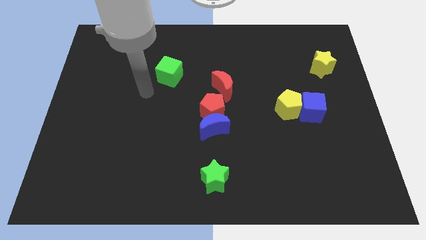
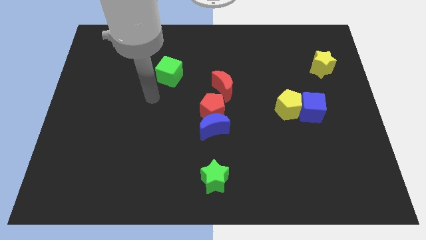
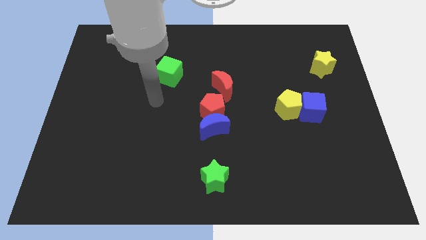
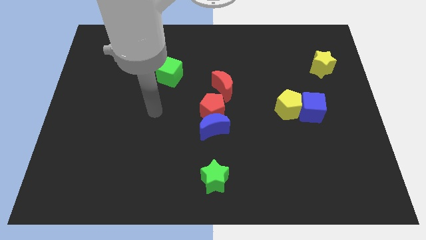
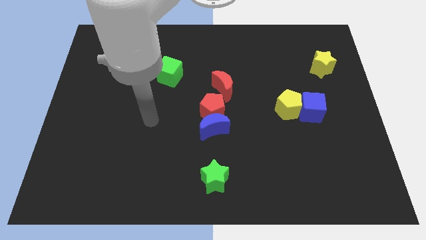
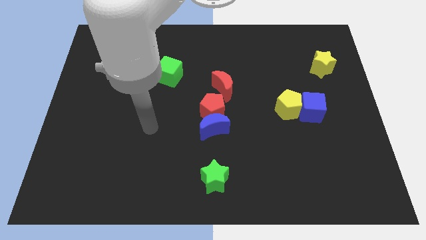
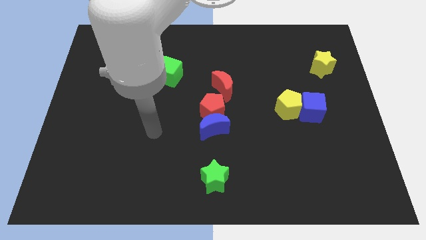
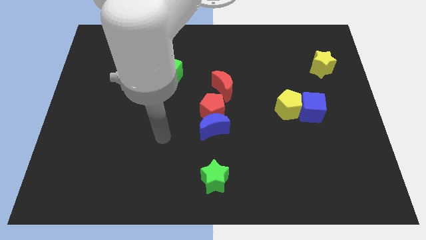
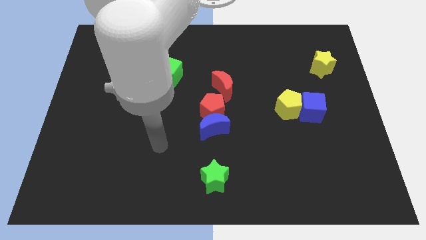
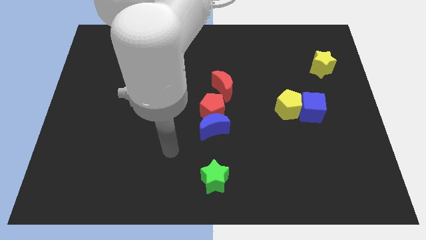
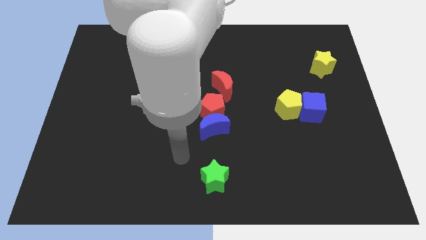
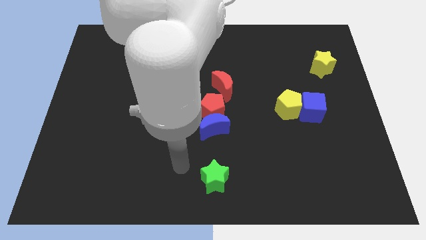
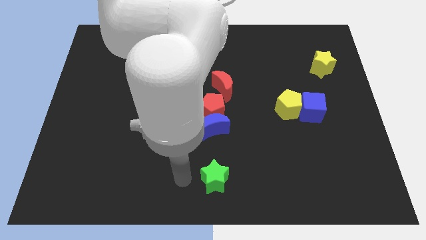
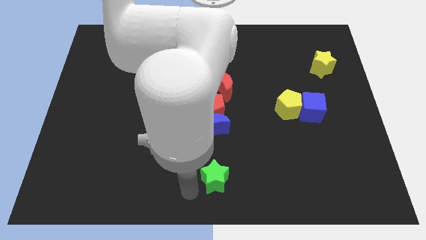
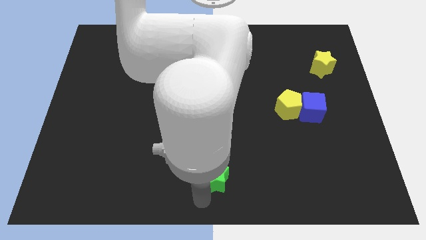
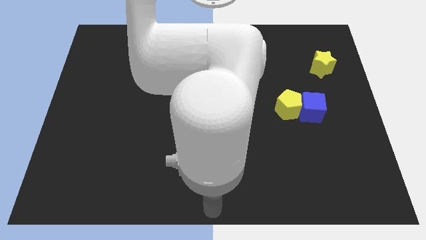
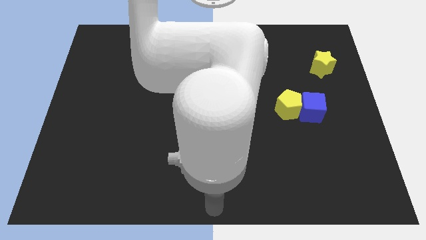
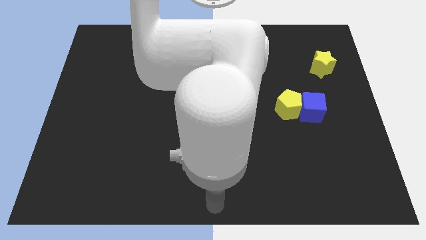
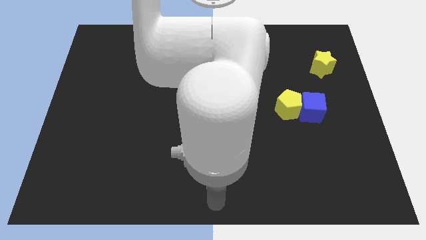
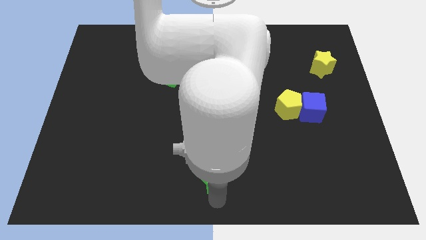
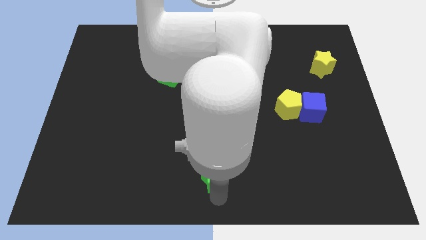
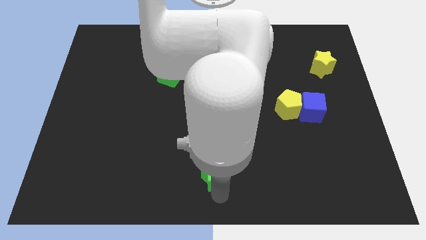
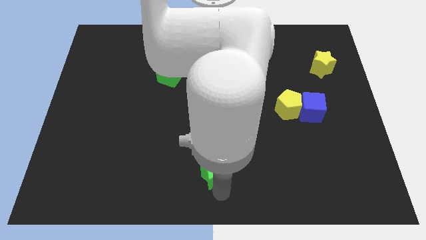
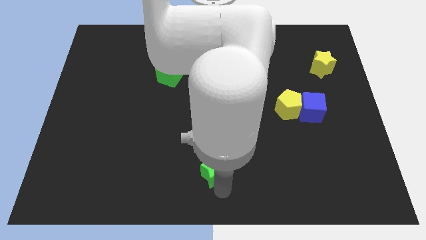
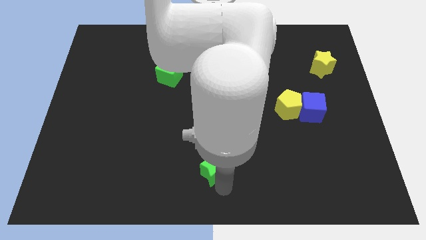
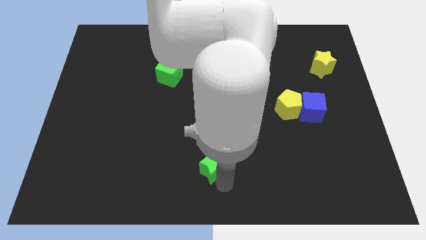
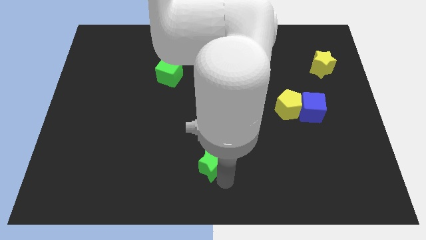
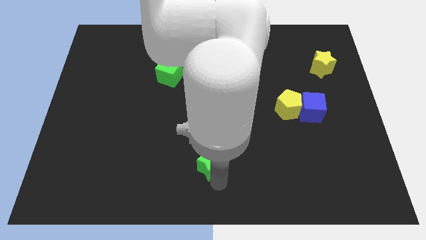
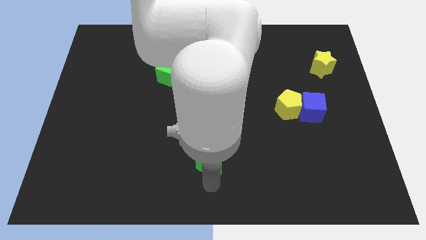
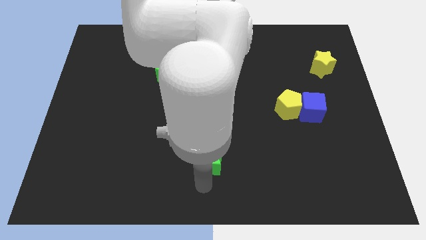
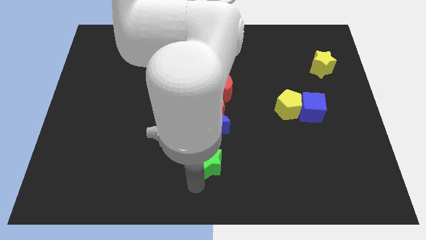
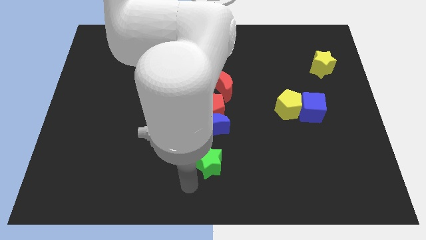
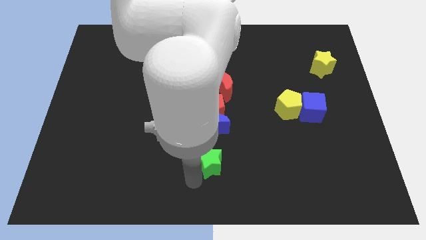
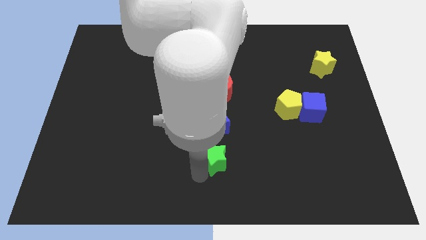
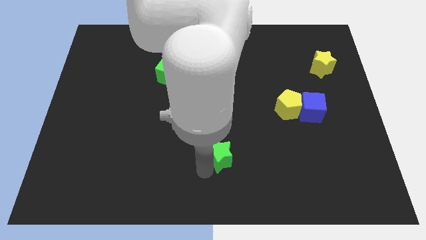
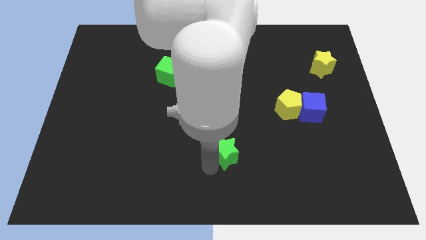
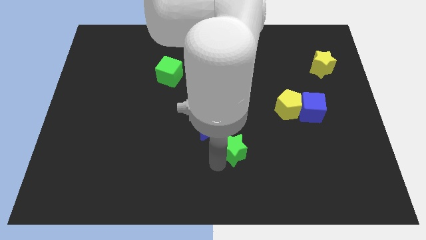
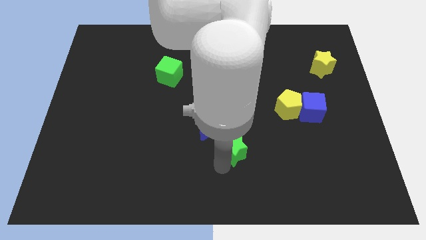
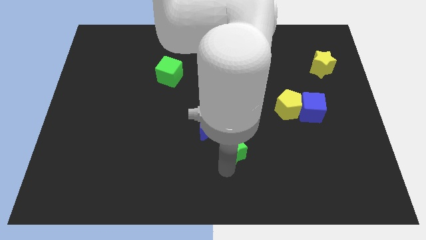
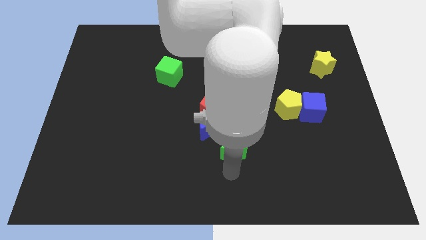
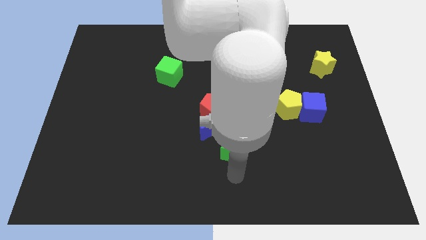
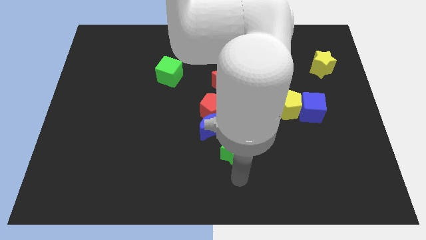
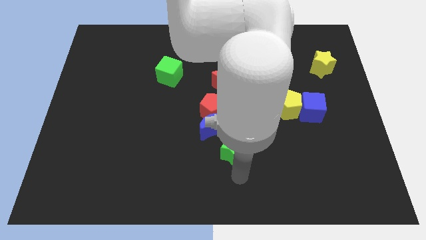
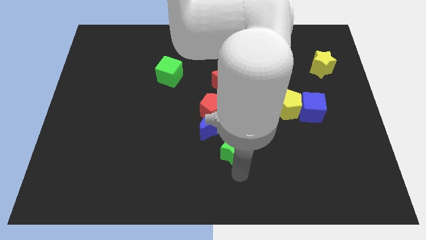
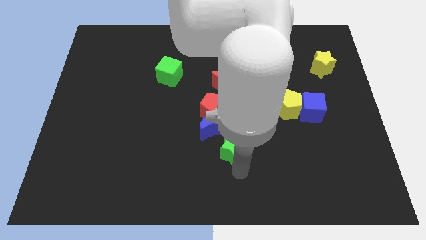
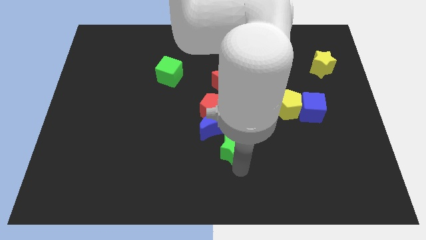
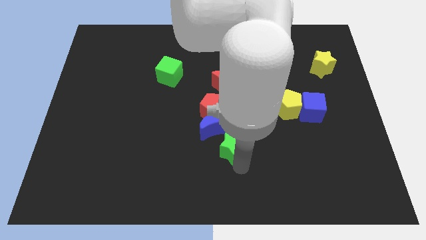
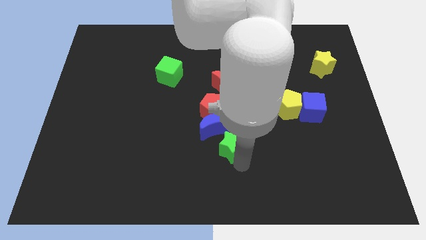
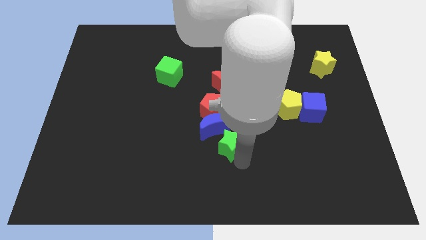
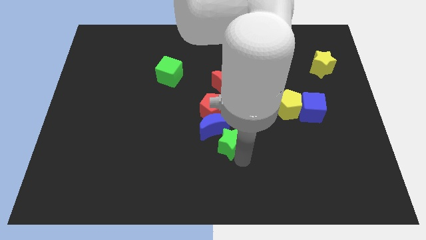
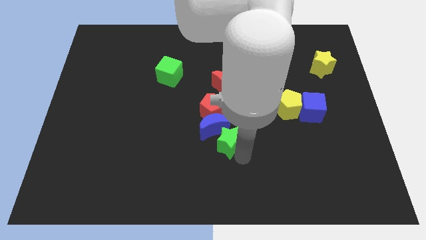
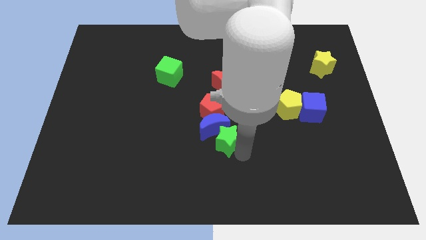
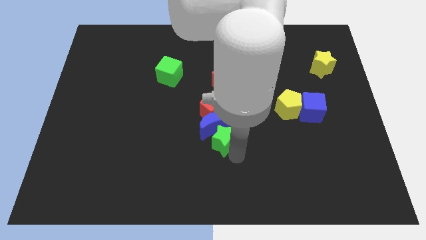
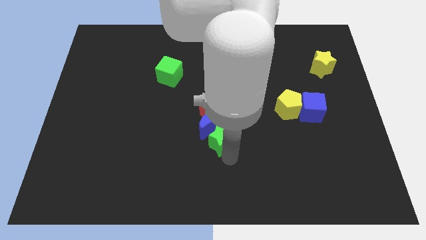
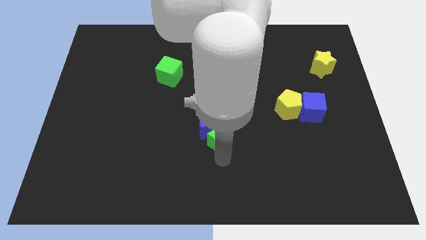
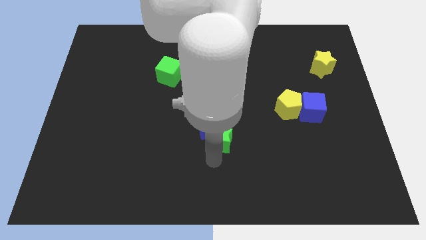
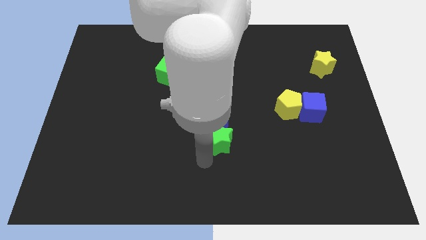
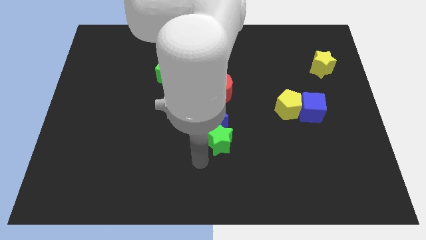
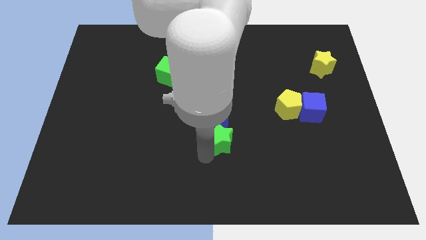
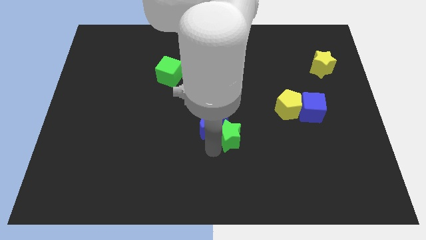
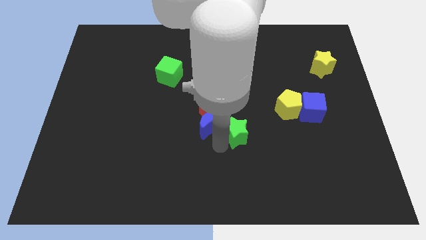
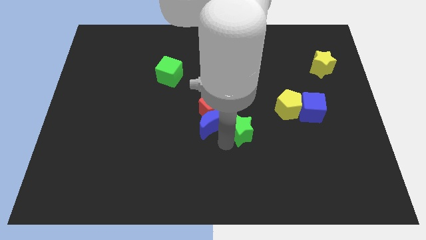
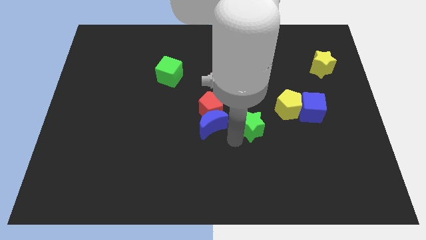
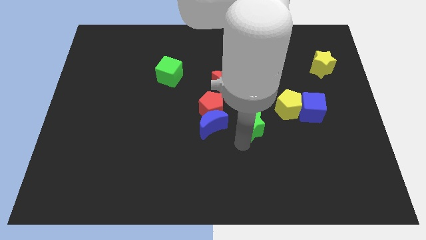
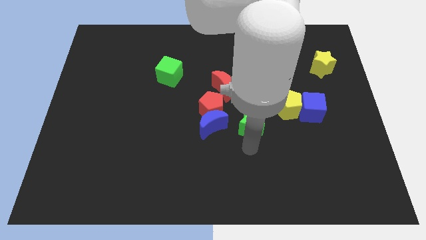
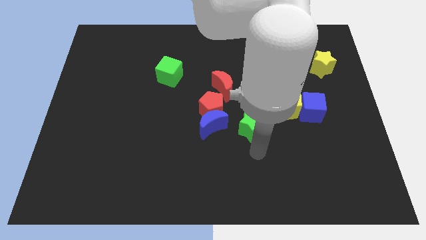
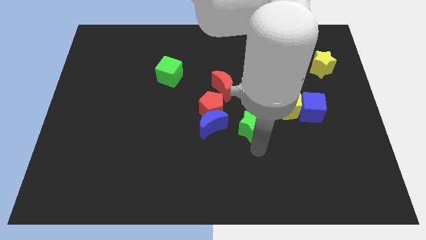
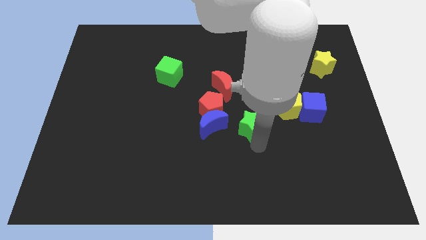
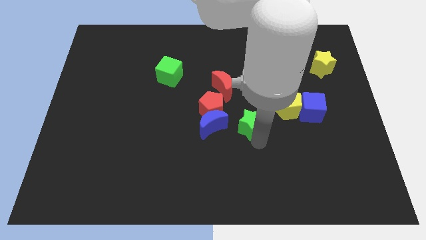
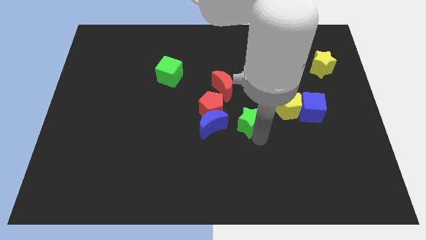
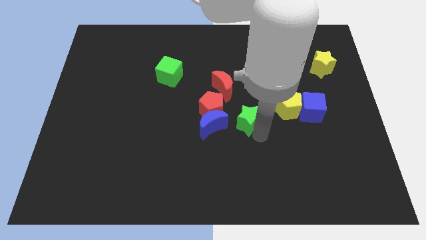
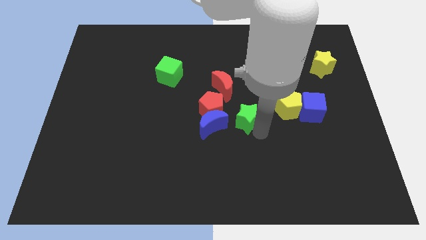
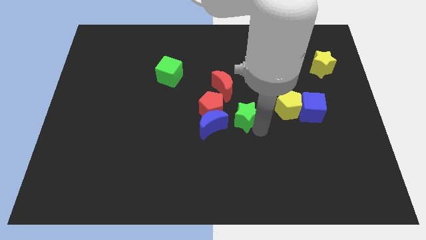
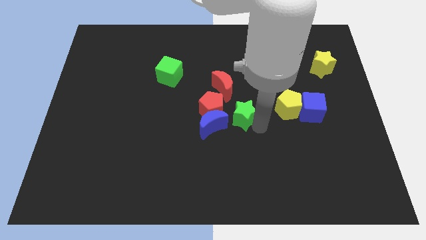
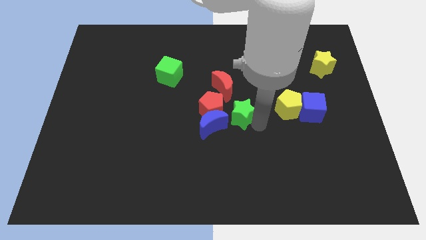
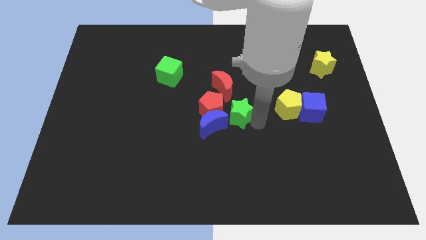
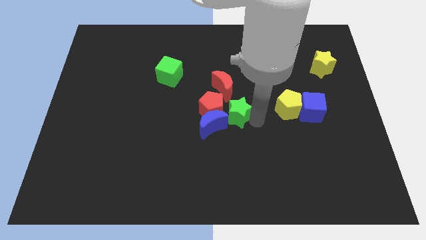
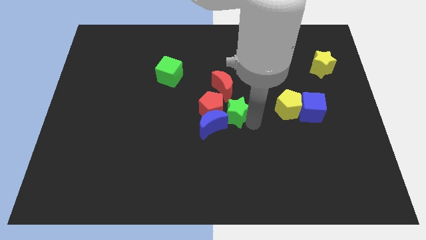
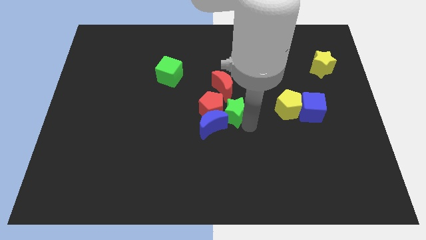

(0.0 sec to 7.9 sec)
slide the green star diagonally up and to the right of the red pentagon
